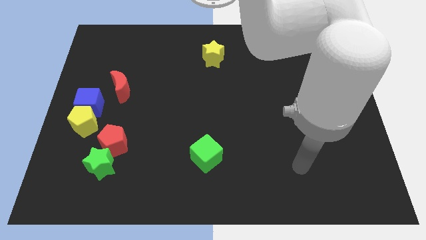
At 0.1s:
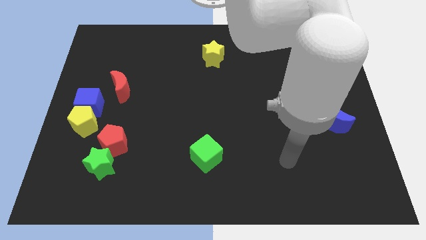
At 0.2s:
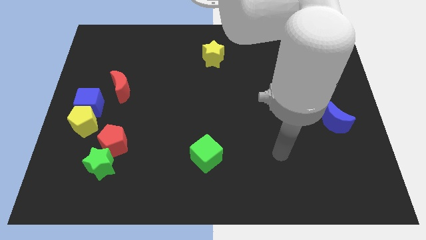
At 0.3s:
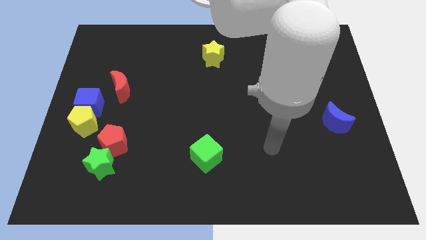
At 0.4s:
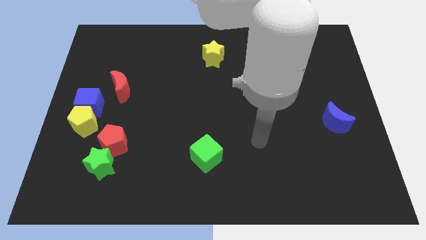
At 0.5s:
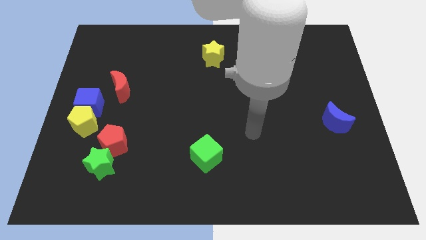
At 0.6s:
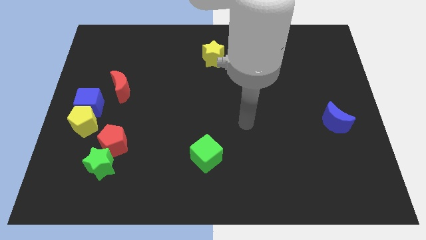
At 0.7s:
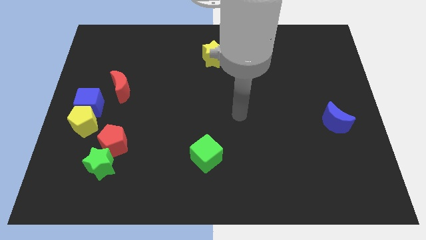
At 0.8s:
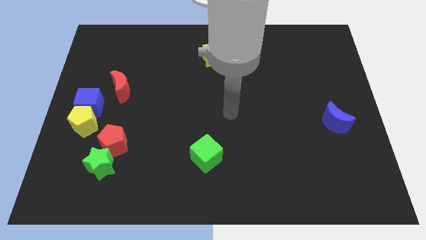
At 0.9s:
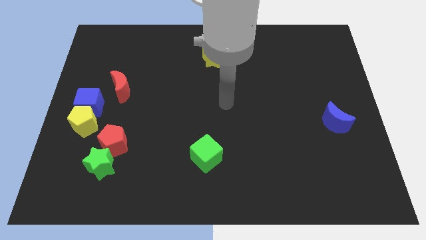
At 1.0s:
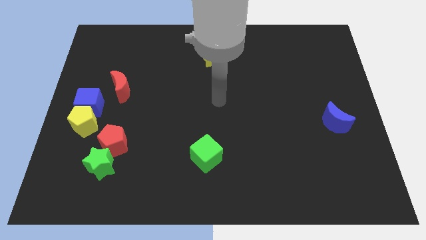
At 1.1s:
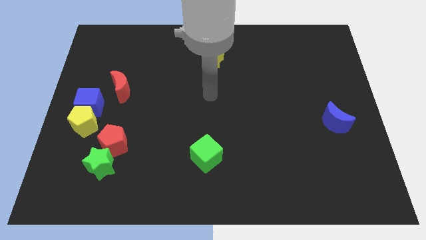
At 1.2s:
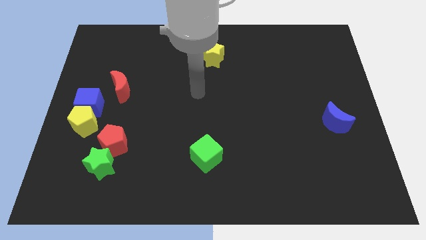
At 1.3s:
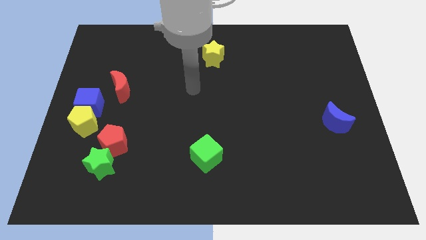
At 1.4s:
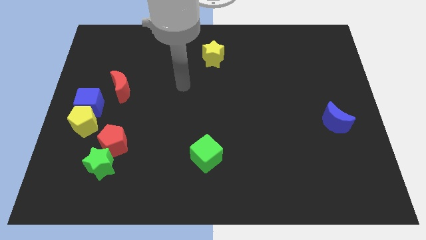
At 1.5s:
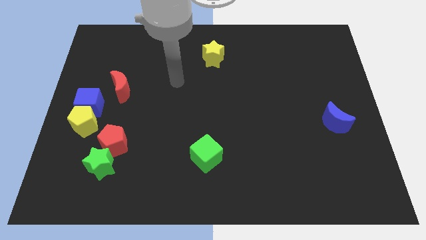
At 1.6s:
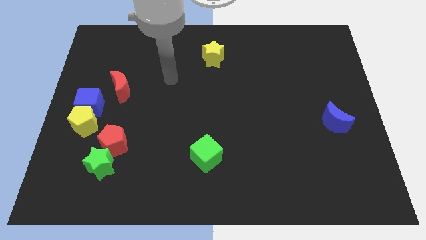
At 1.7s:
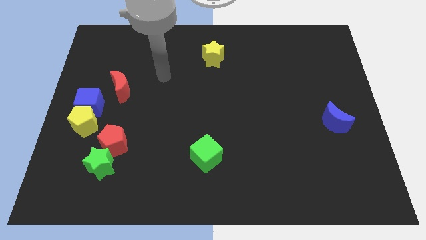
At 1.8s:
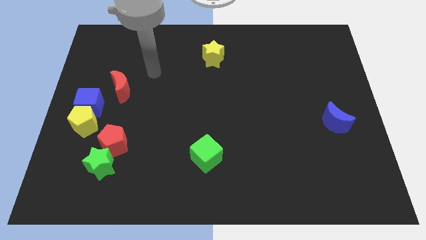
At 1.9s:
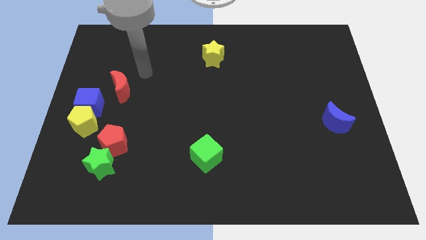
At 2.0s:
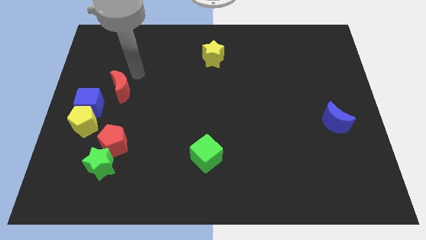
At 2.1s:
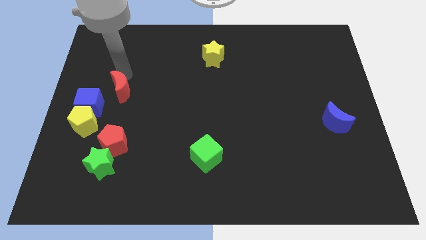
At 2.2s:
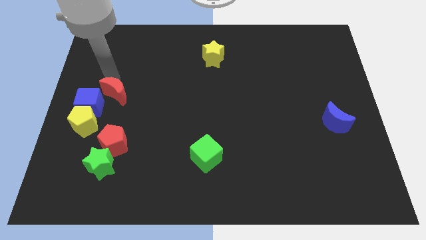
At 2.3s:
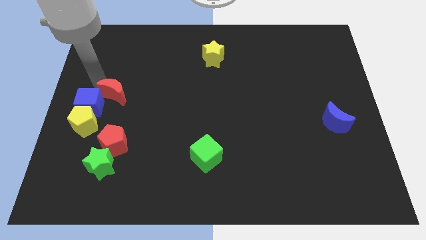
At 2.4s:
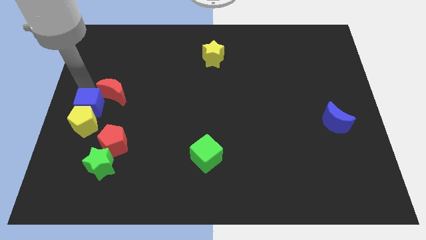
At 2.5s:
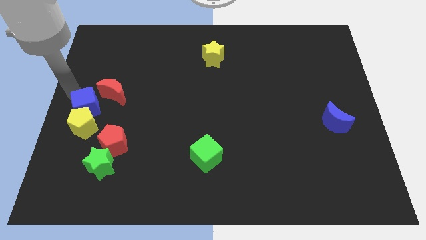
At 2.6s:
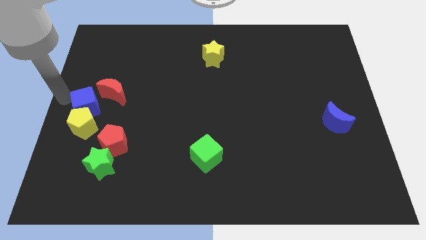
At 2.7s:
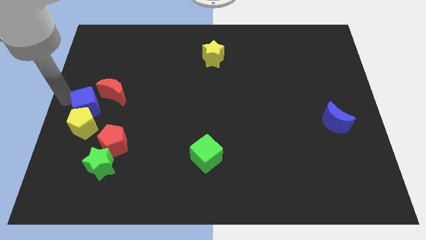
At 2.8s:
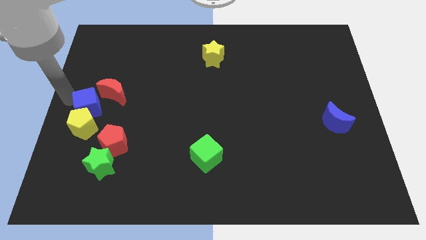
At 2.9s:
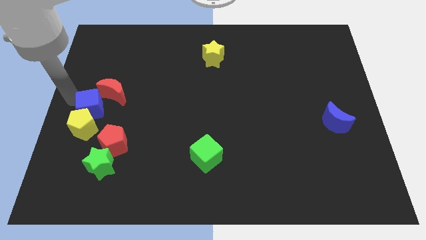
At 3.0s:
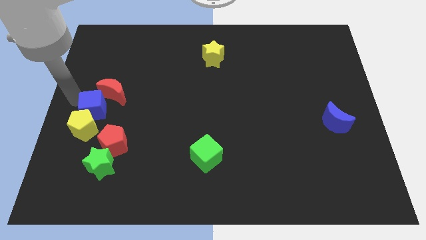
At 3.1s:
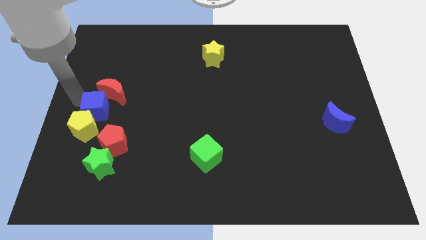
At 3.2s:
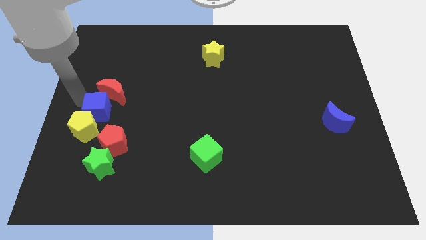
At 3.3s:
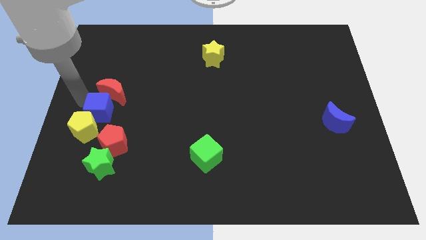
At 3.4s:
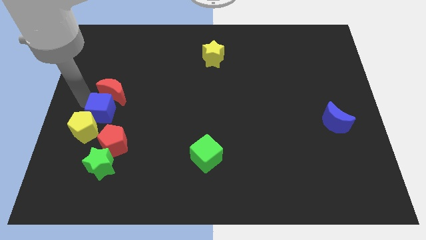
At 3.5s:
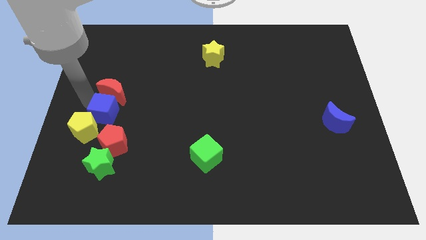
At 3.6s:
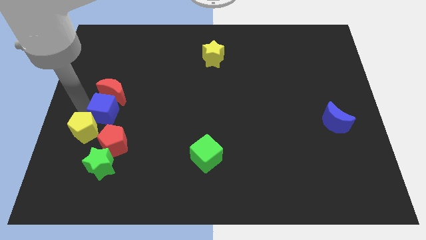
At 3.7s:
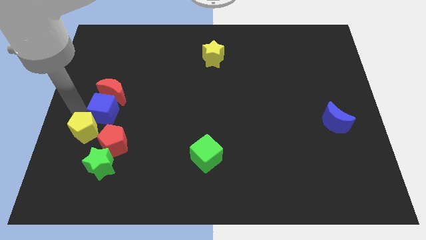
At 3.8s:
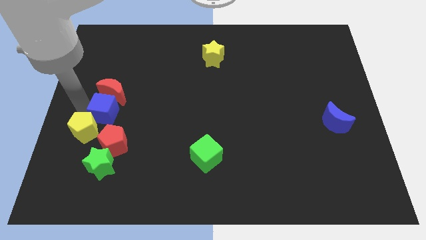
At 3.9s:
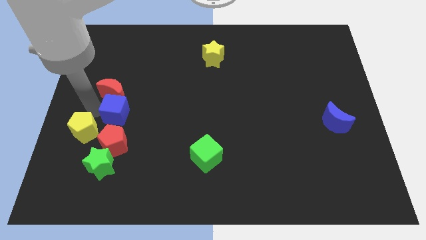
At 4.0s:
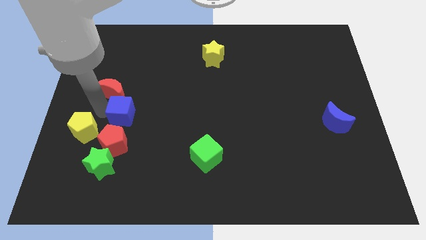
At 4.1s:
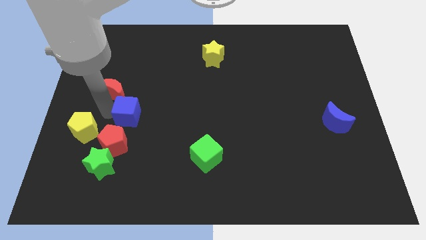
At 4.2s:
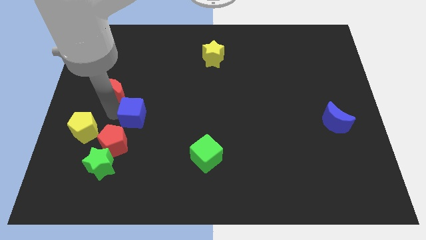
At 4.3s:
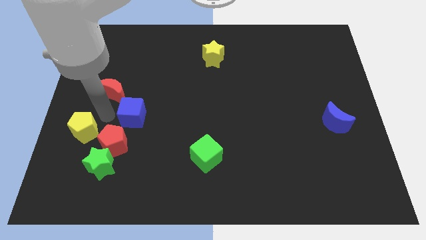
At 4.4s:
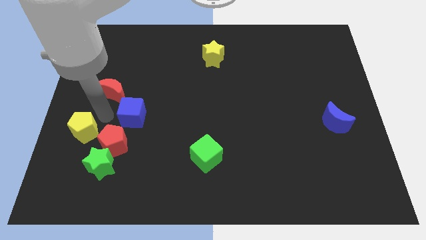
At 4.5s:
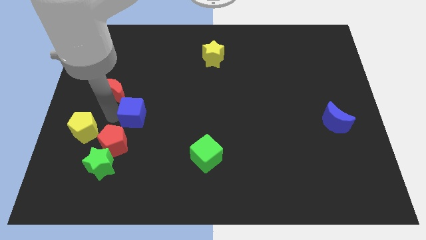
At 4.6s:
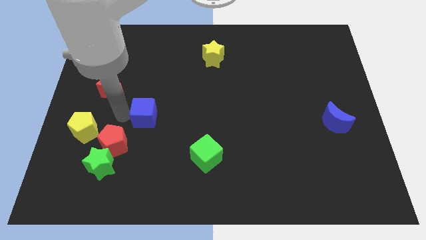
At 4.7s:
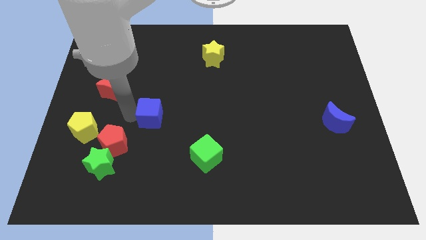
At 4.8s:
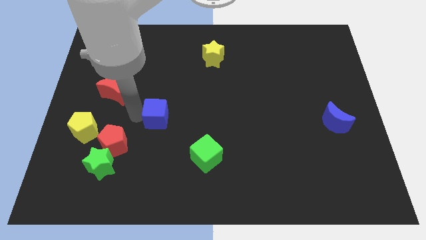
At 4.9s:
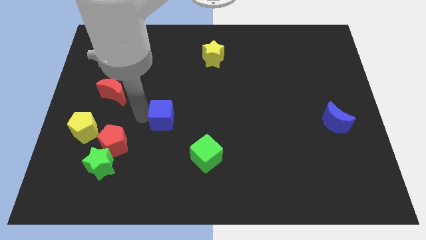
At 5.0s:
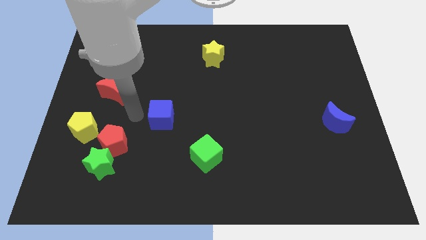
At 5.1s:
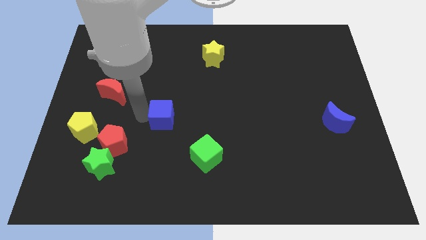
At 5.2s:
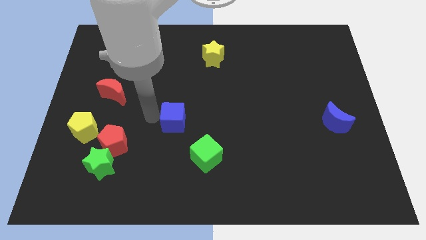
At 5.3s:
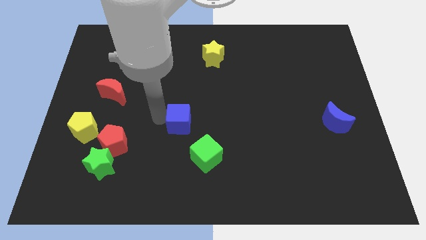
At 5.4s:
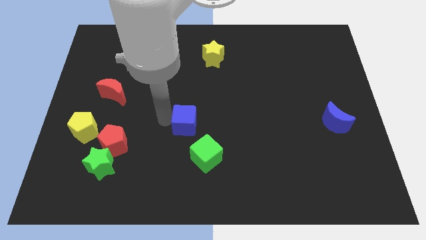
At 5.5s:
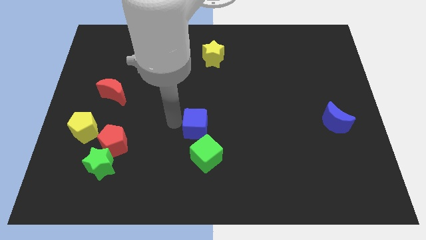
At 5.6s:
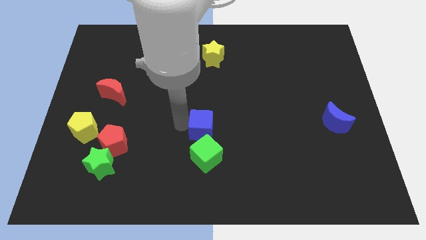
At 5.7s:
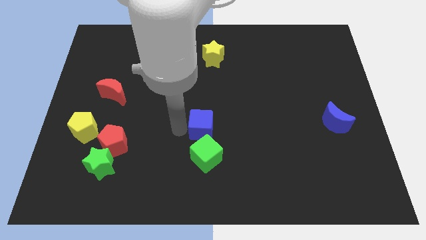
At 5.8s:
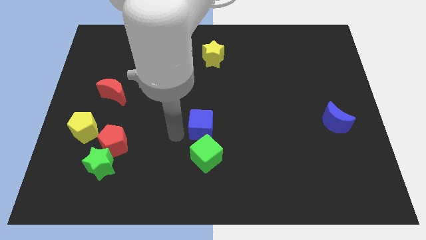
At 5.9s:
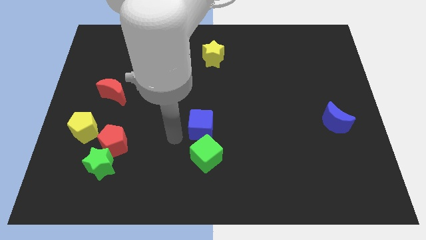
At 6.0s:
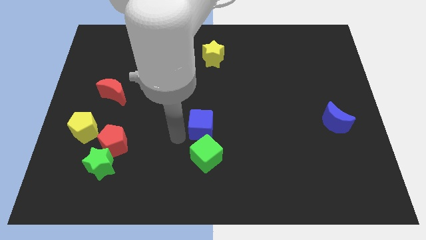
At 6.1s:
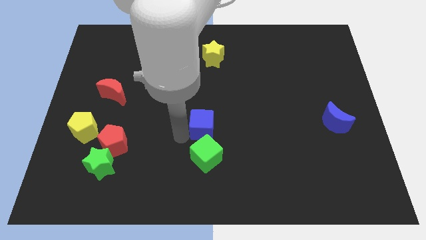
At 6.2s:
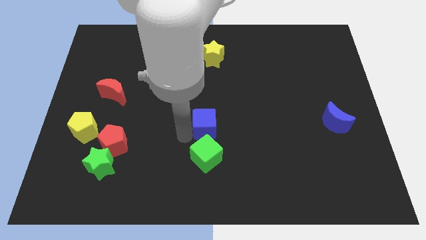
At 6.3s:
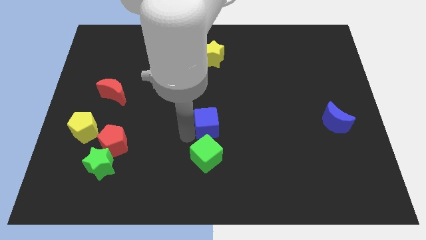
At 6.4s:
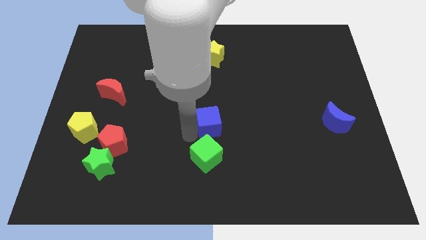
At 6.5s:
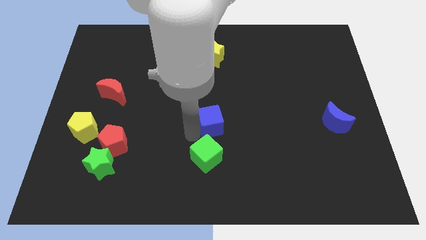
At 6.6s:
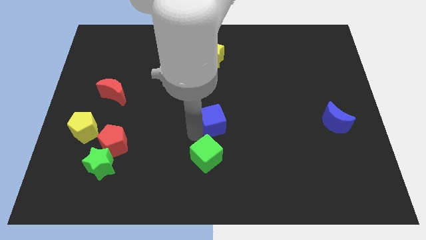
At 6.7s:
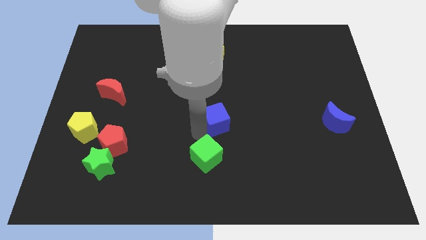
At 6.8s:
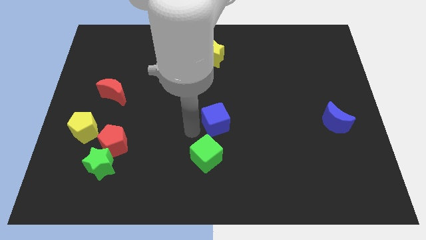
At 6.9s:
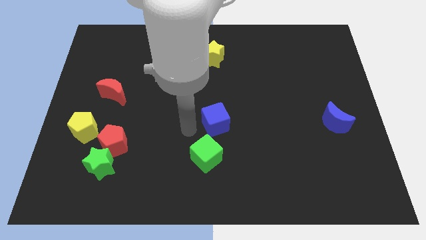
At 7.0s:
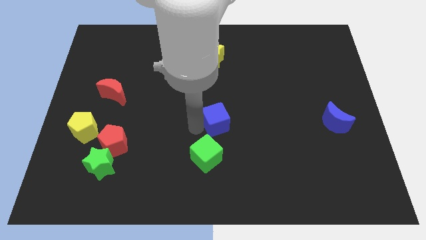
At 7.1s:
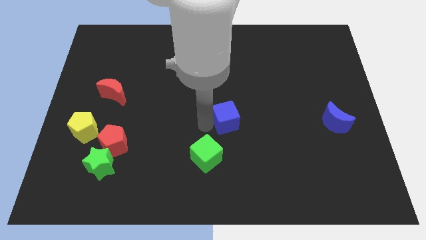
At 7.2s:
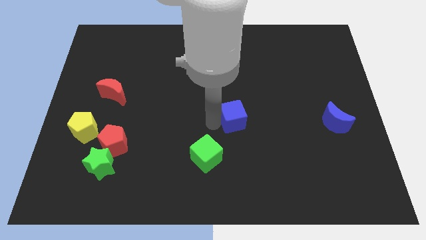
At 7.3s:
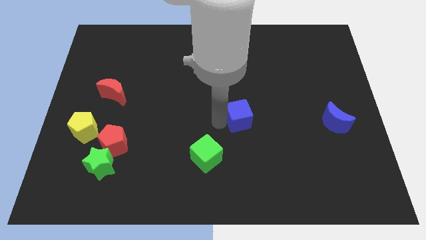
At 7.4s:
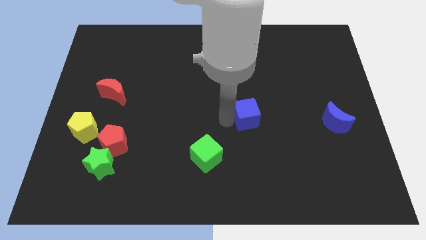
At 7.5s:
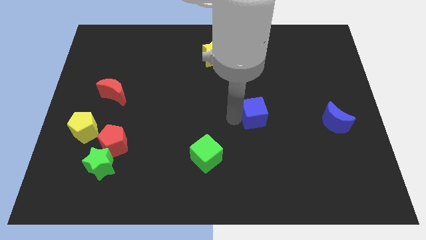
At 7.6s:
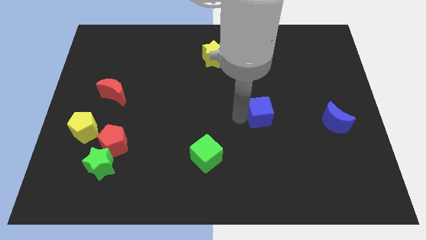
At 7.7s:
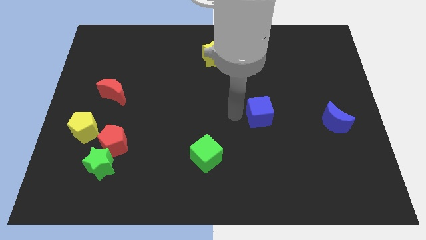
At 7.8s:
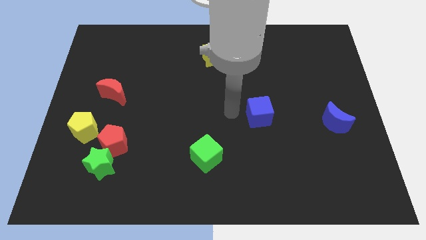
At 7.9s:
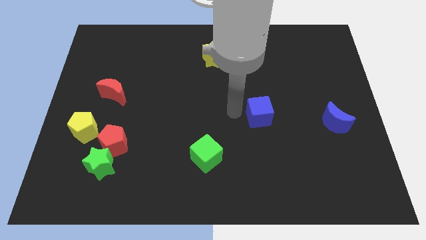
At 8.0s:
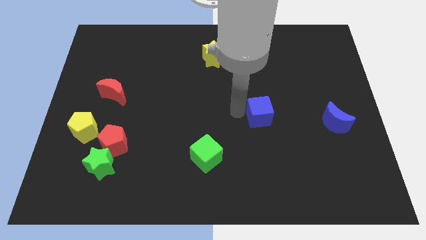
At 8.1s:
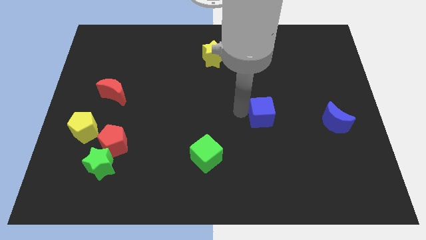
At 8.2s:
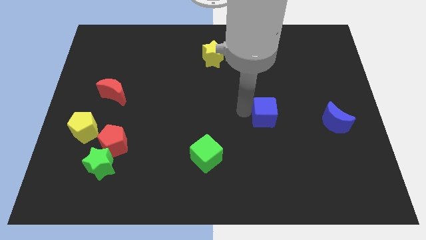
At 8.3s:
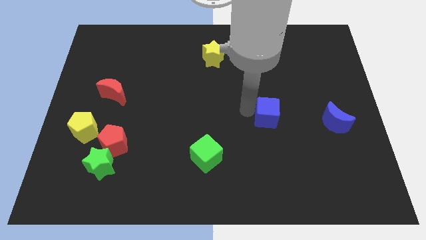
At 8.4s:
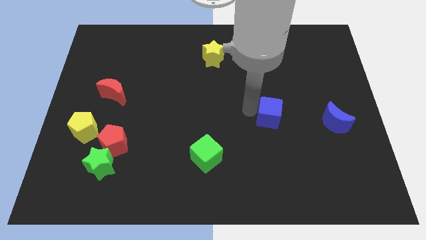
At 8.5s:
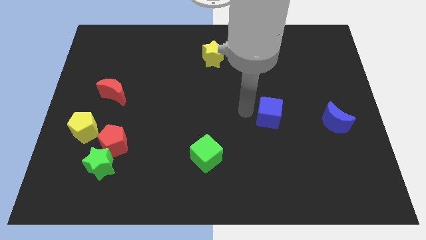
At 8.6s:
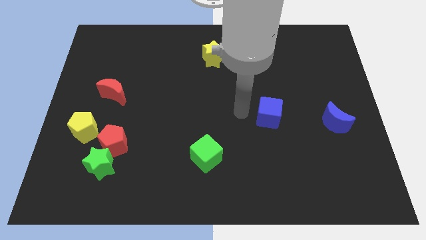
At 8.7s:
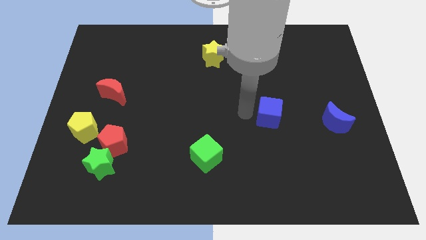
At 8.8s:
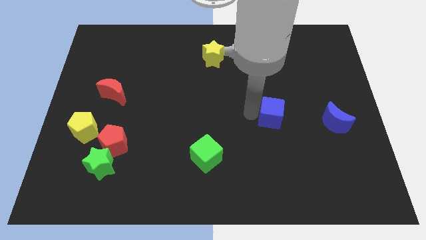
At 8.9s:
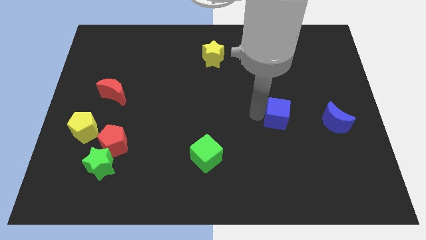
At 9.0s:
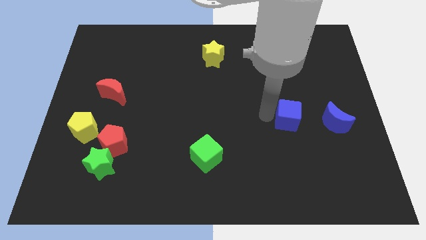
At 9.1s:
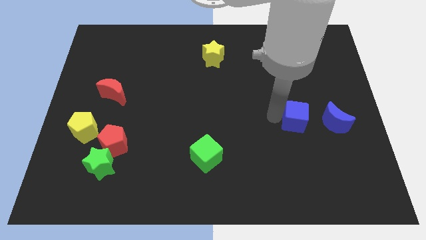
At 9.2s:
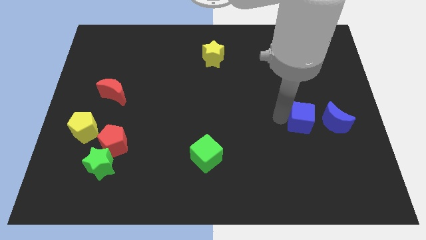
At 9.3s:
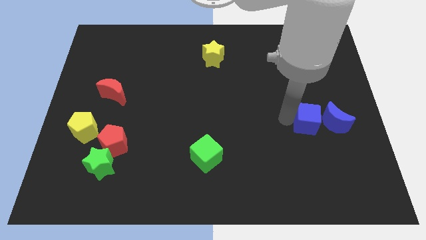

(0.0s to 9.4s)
move the blue cube close to the blue moon
